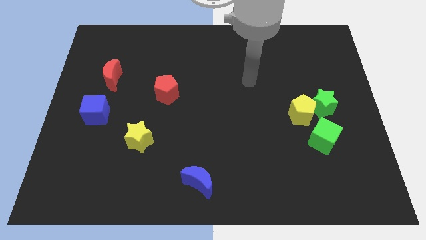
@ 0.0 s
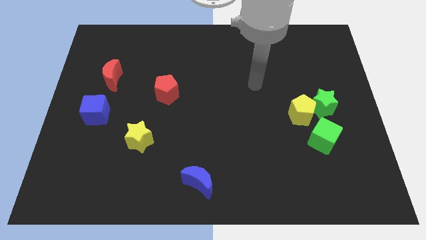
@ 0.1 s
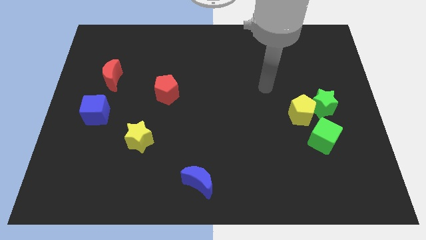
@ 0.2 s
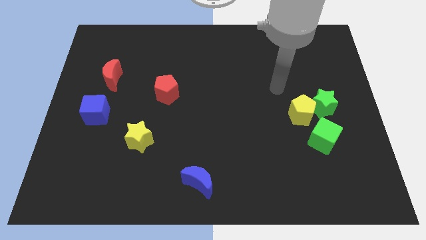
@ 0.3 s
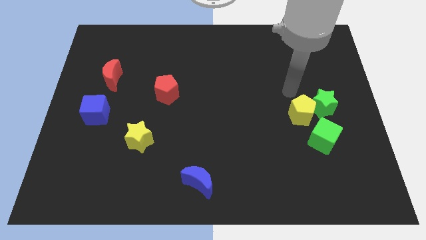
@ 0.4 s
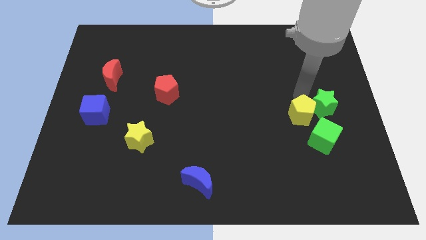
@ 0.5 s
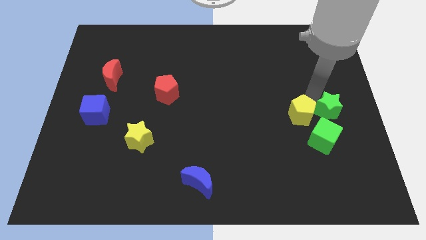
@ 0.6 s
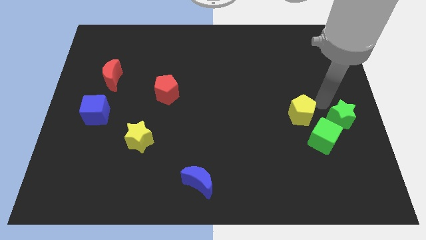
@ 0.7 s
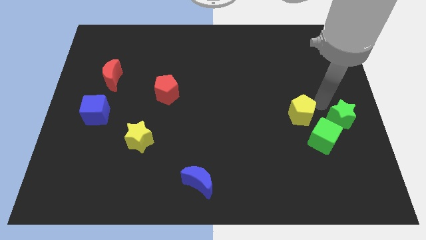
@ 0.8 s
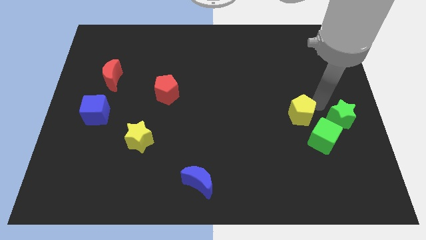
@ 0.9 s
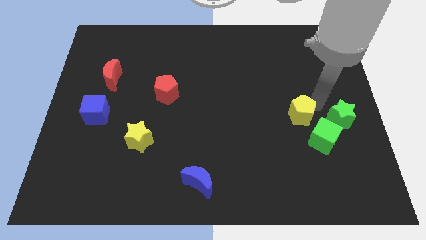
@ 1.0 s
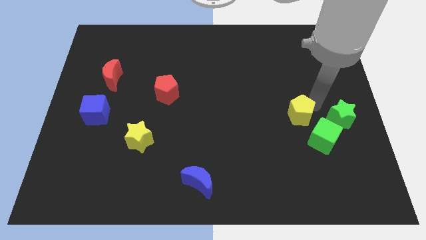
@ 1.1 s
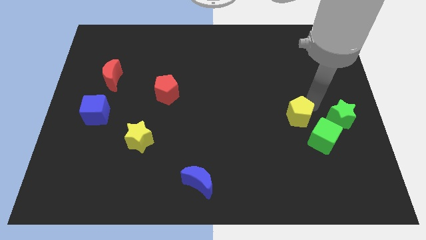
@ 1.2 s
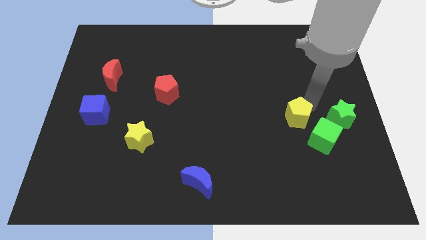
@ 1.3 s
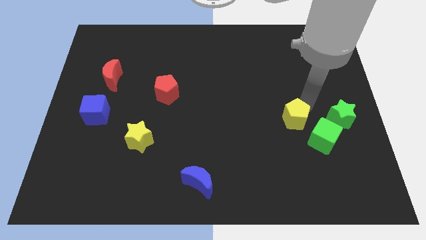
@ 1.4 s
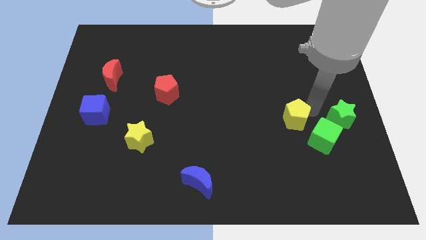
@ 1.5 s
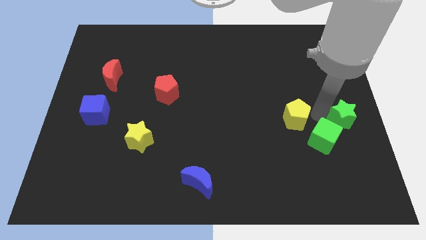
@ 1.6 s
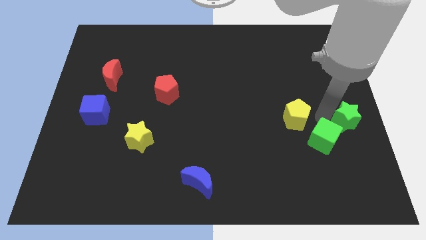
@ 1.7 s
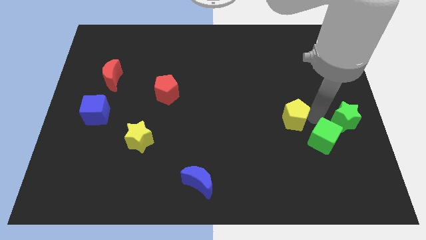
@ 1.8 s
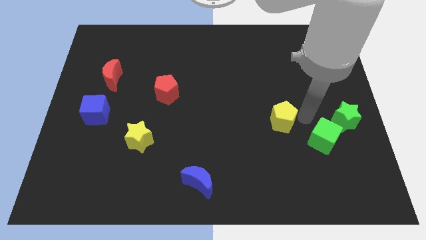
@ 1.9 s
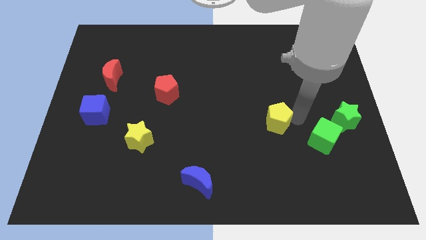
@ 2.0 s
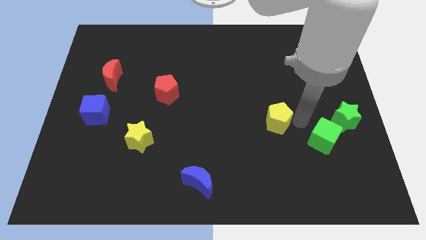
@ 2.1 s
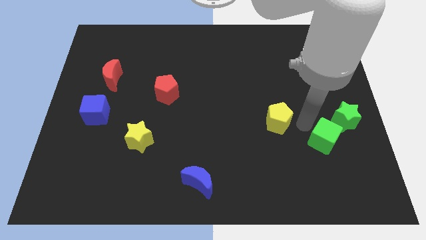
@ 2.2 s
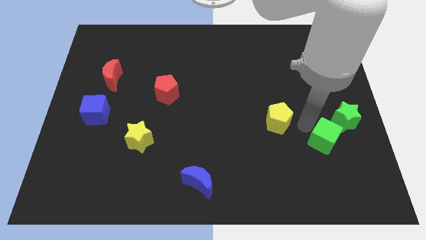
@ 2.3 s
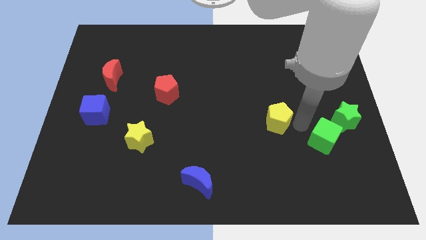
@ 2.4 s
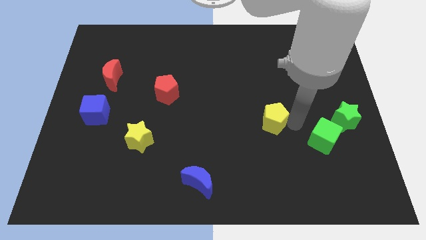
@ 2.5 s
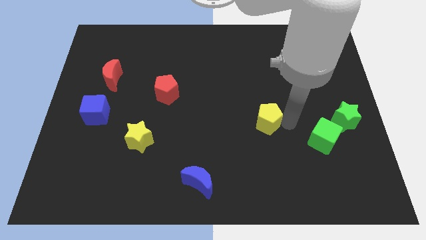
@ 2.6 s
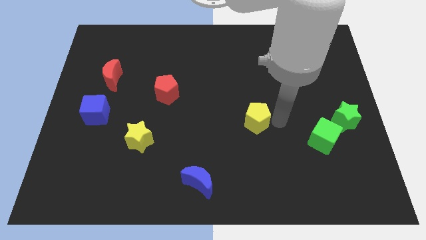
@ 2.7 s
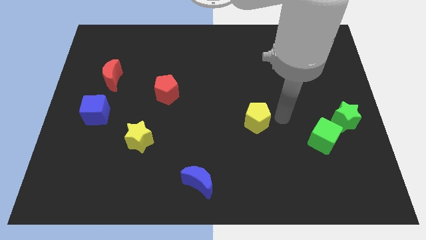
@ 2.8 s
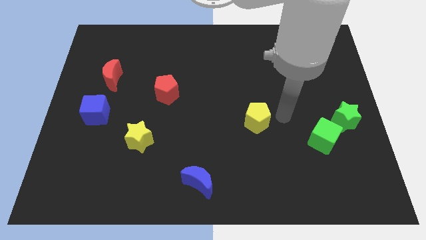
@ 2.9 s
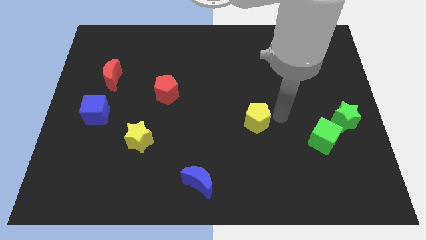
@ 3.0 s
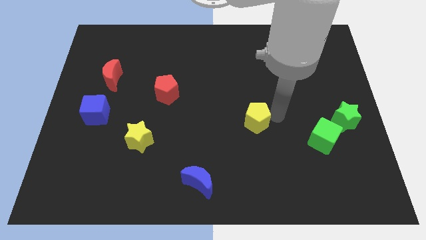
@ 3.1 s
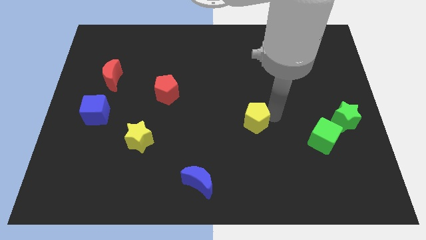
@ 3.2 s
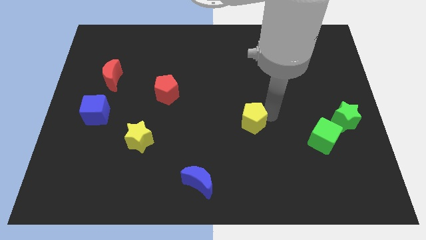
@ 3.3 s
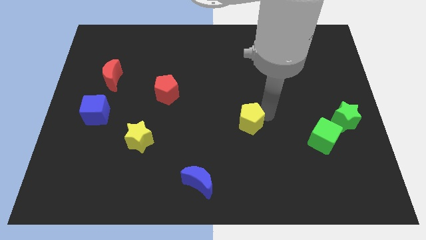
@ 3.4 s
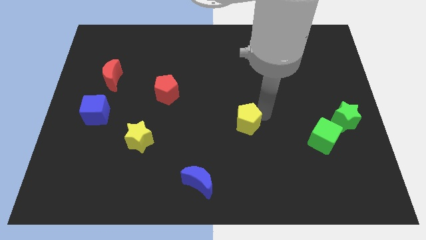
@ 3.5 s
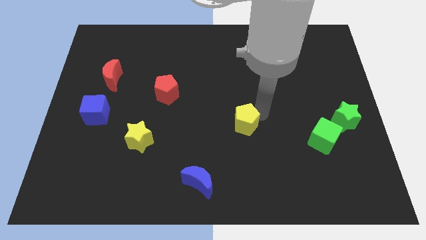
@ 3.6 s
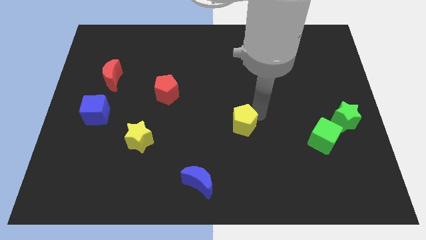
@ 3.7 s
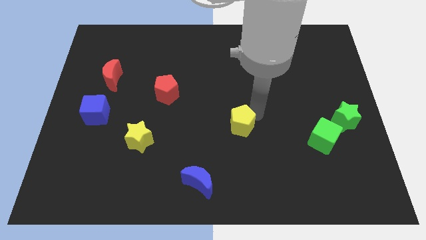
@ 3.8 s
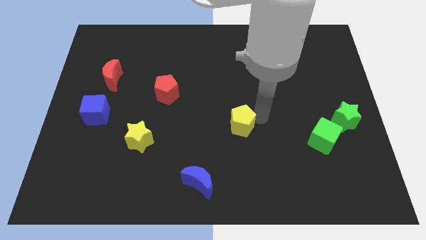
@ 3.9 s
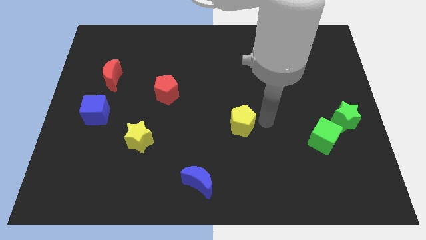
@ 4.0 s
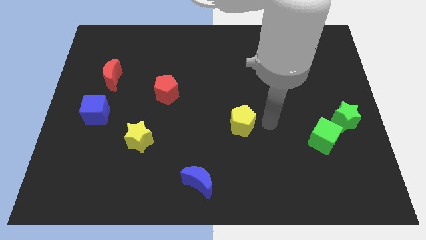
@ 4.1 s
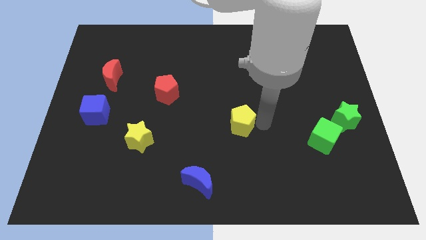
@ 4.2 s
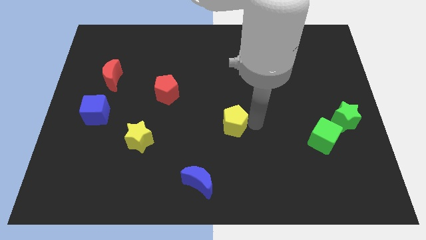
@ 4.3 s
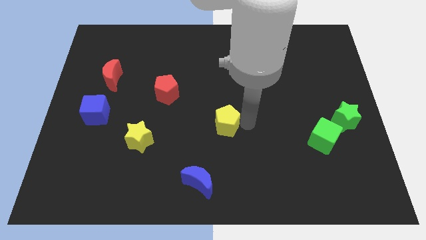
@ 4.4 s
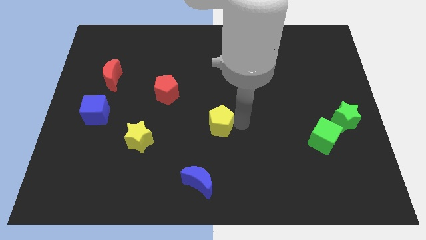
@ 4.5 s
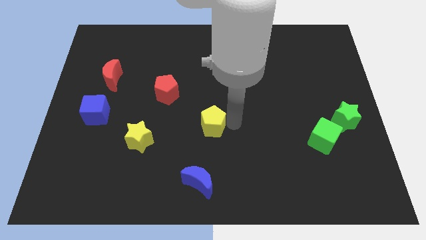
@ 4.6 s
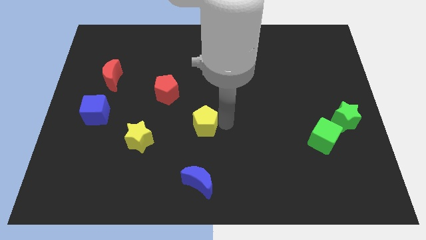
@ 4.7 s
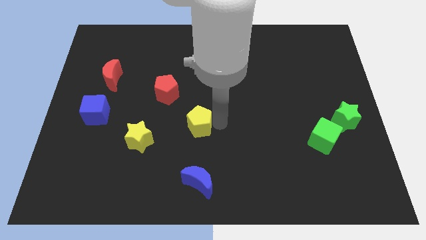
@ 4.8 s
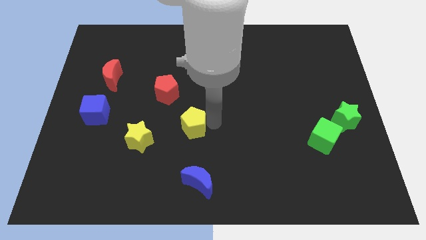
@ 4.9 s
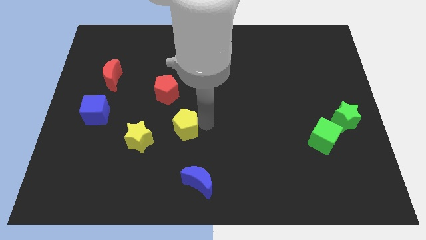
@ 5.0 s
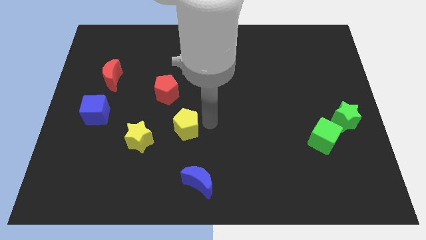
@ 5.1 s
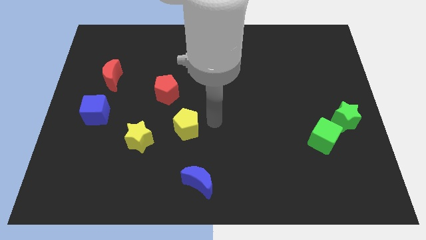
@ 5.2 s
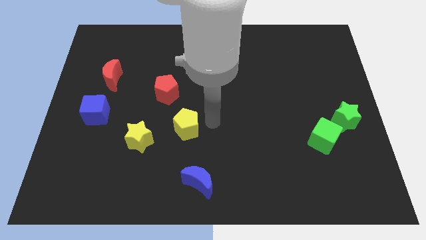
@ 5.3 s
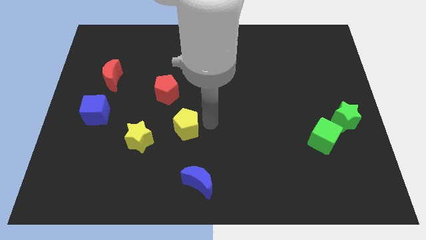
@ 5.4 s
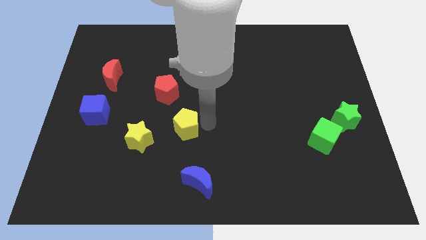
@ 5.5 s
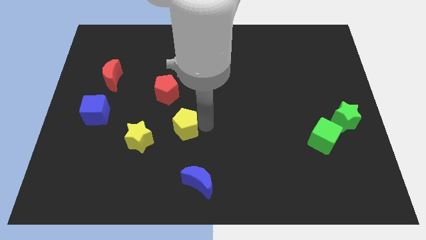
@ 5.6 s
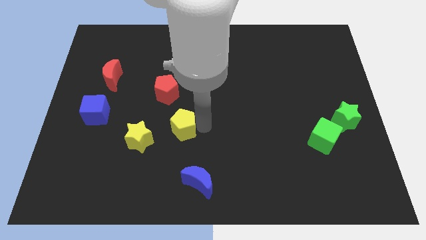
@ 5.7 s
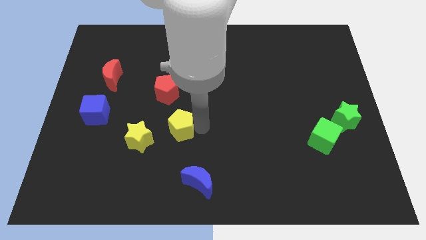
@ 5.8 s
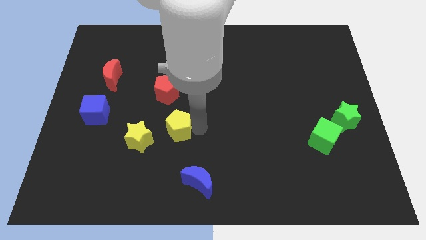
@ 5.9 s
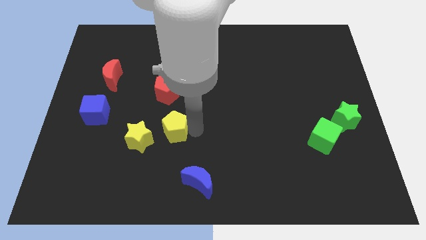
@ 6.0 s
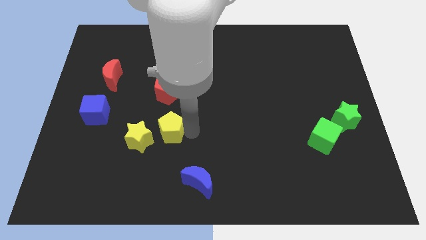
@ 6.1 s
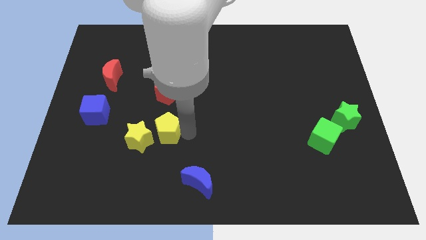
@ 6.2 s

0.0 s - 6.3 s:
slide the yellow pentagon towards the yellow star

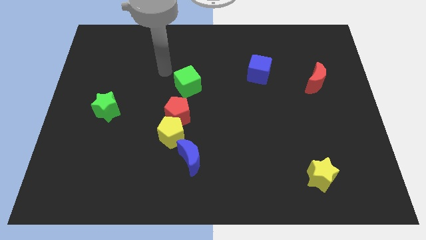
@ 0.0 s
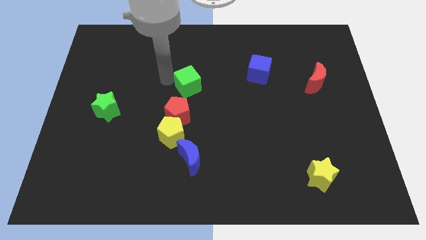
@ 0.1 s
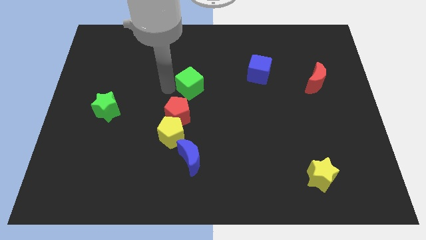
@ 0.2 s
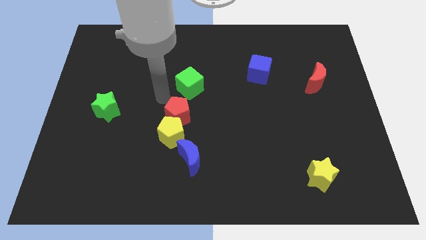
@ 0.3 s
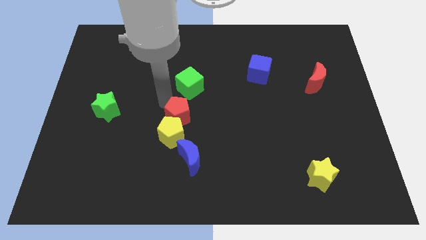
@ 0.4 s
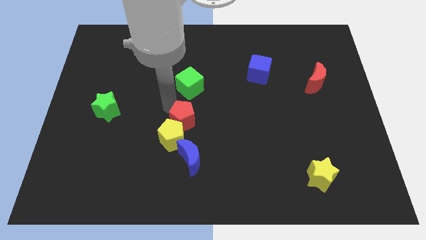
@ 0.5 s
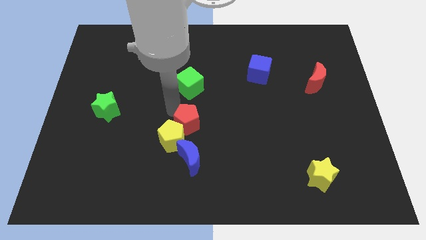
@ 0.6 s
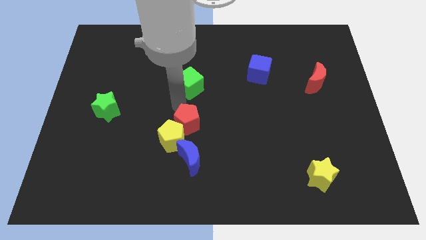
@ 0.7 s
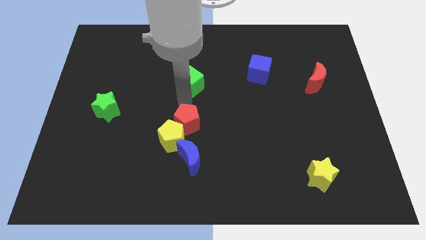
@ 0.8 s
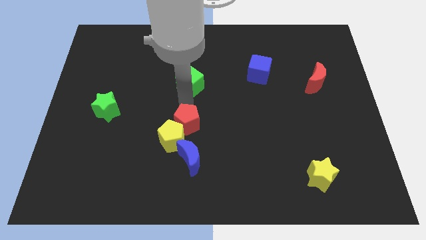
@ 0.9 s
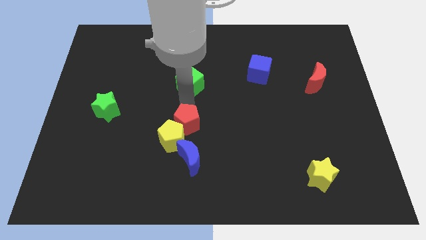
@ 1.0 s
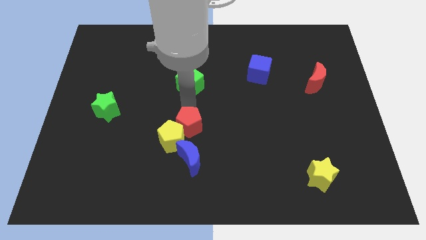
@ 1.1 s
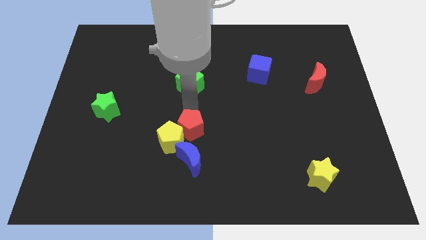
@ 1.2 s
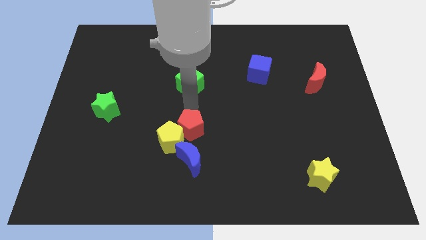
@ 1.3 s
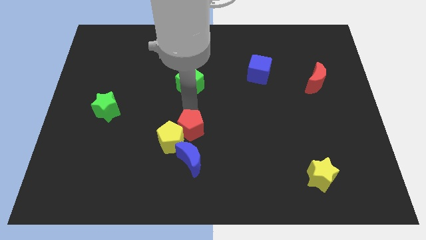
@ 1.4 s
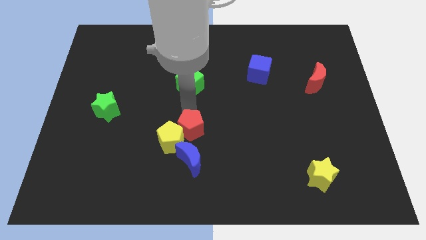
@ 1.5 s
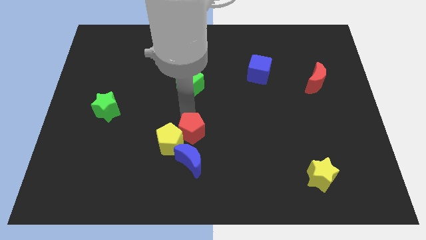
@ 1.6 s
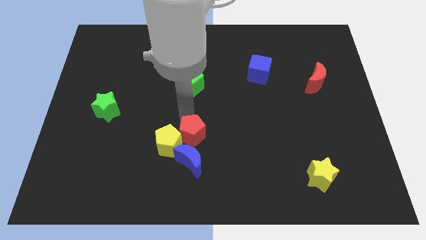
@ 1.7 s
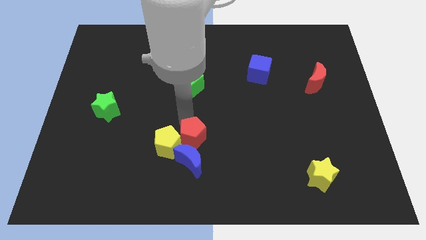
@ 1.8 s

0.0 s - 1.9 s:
slide the red pentagon towards the blue moon
